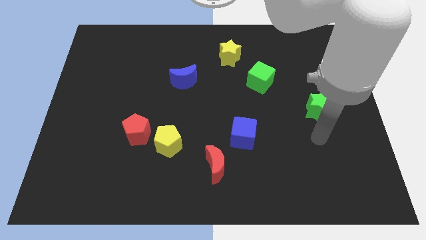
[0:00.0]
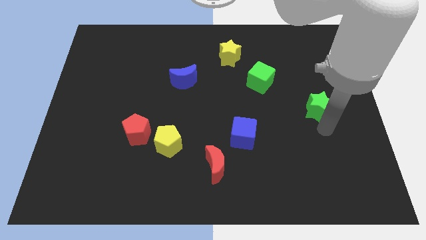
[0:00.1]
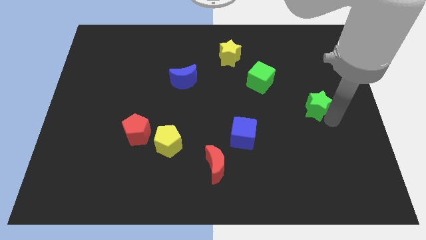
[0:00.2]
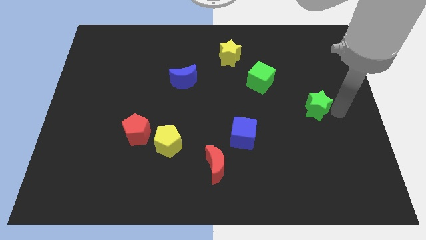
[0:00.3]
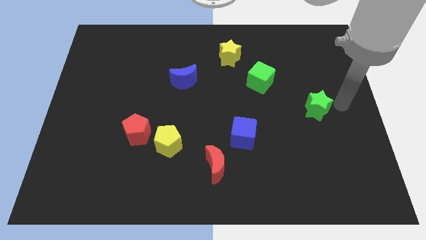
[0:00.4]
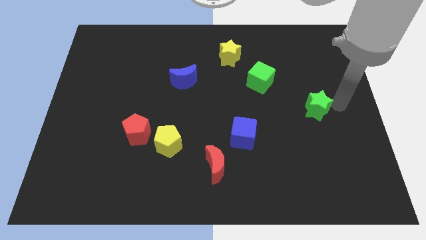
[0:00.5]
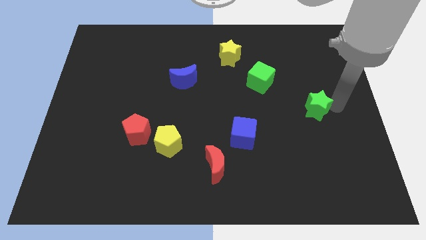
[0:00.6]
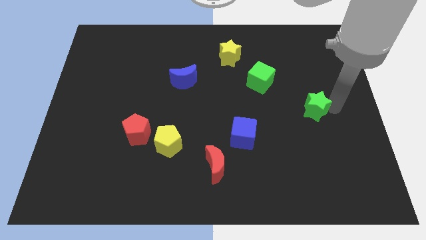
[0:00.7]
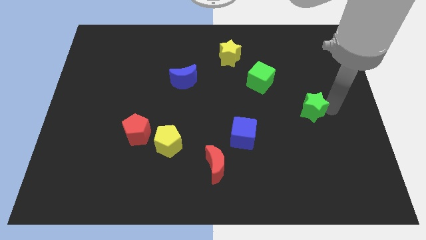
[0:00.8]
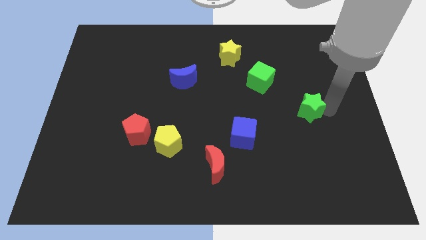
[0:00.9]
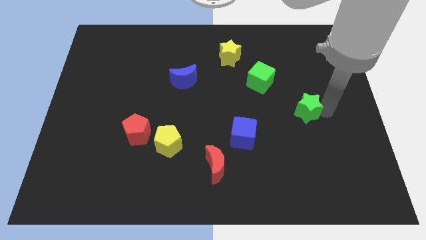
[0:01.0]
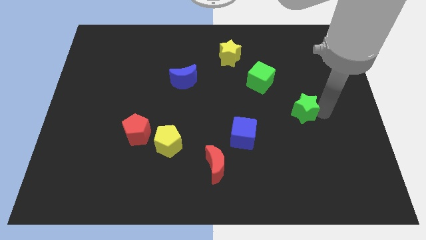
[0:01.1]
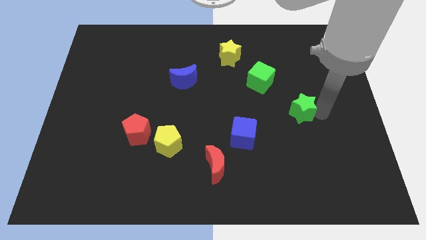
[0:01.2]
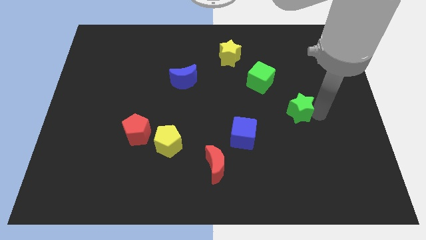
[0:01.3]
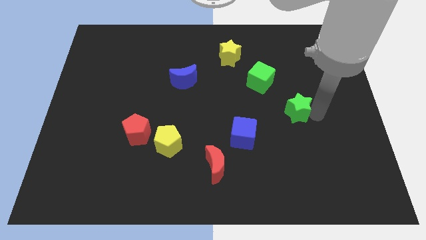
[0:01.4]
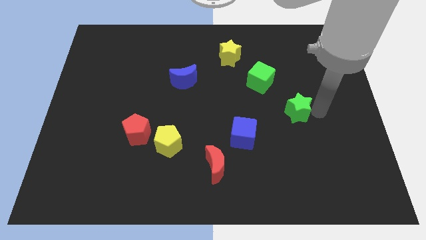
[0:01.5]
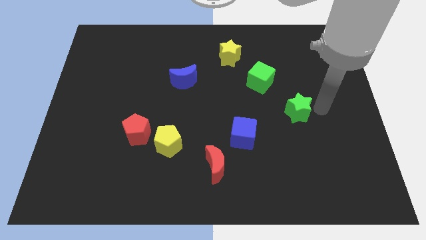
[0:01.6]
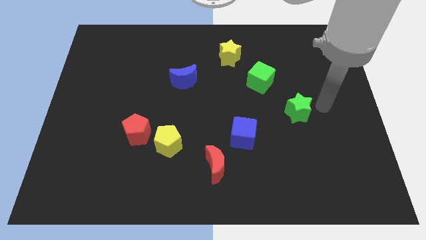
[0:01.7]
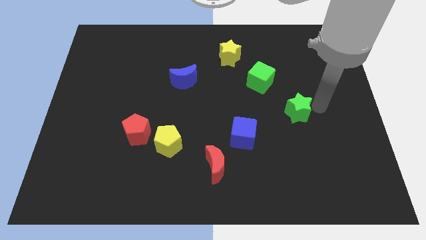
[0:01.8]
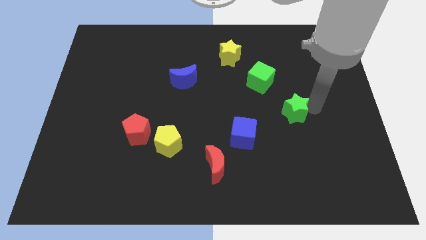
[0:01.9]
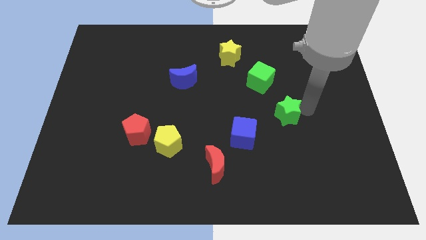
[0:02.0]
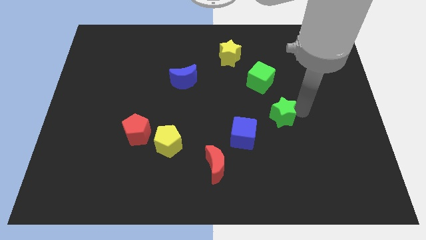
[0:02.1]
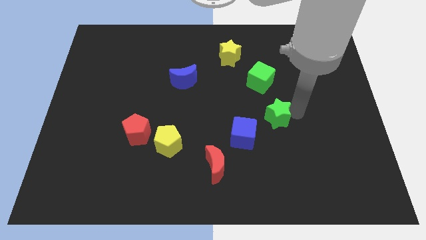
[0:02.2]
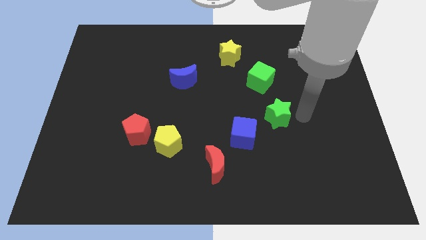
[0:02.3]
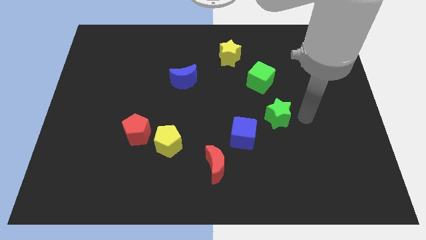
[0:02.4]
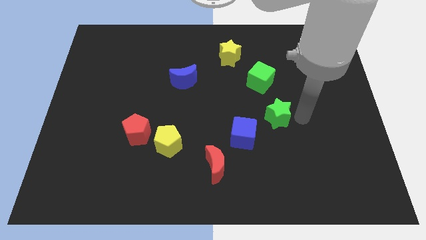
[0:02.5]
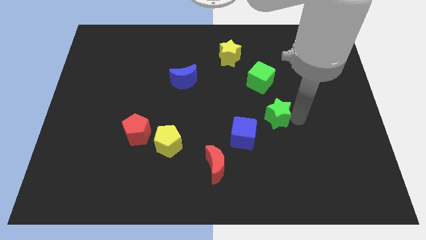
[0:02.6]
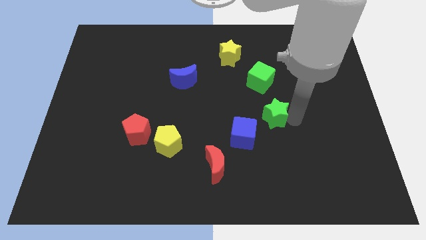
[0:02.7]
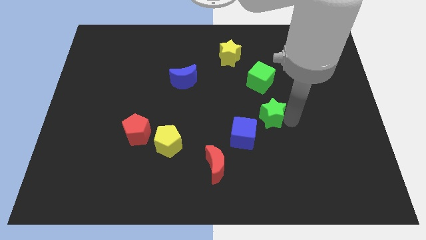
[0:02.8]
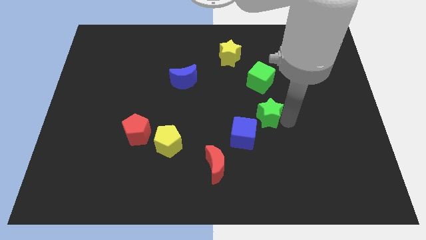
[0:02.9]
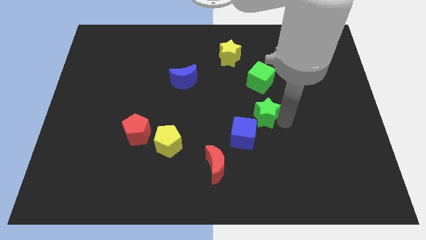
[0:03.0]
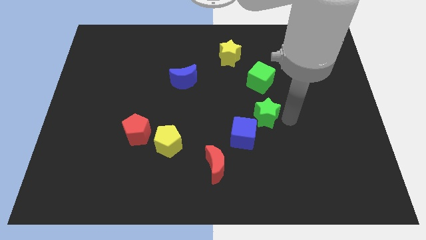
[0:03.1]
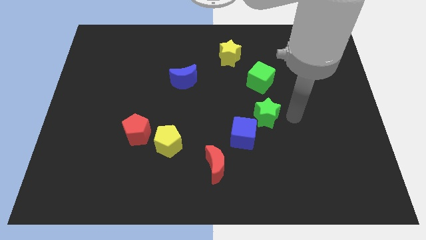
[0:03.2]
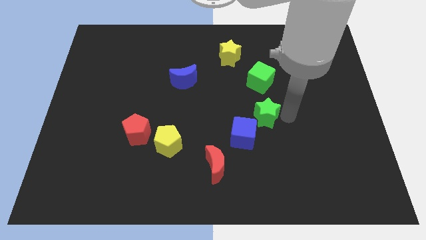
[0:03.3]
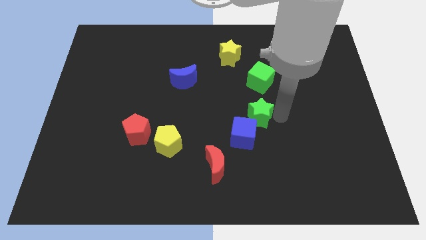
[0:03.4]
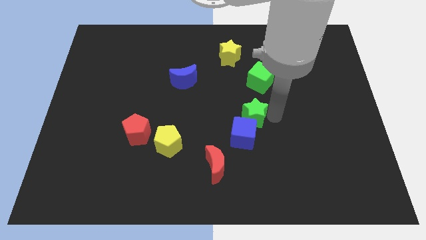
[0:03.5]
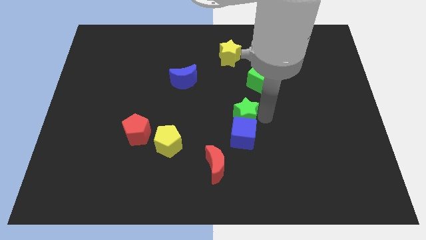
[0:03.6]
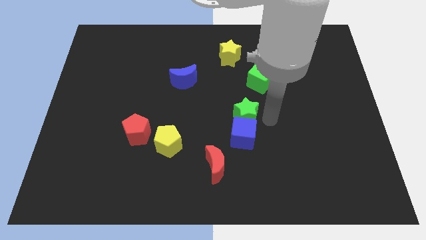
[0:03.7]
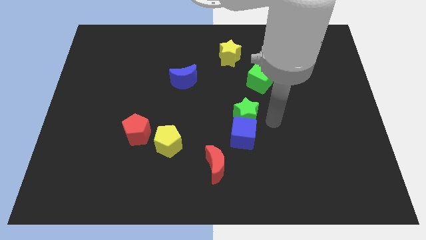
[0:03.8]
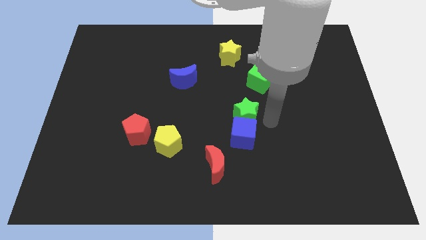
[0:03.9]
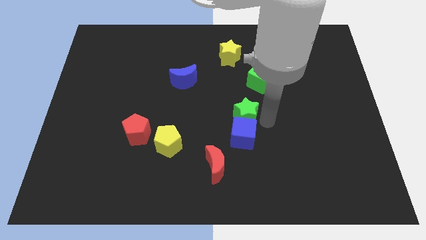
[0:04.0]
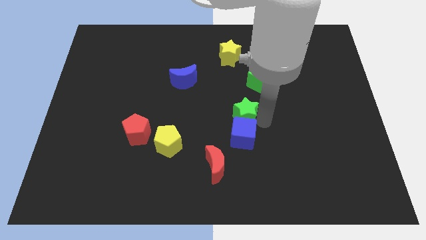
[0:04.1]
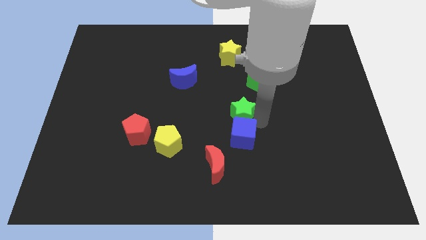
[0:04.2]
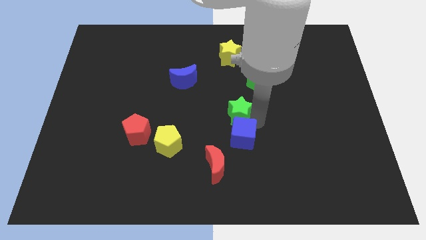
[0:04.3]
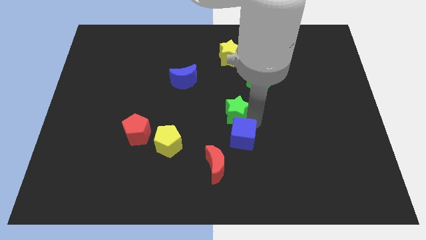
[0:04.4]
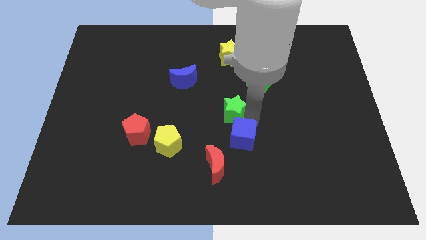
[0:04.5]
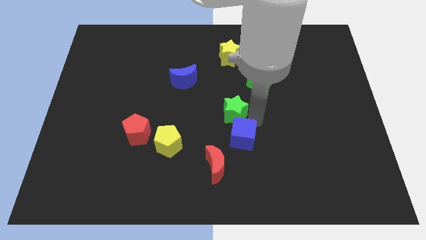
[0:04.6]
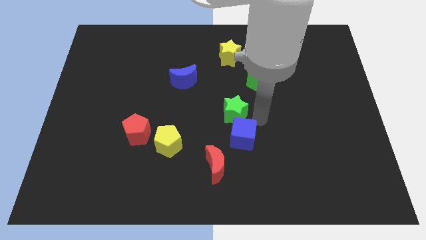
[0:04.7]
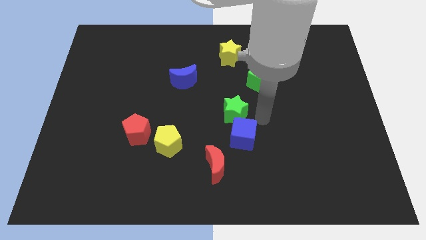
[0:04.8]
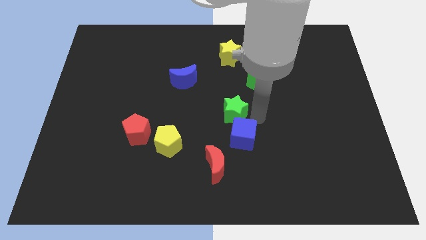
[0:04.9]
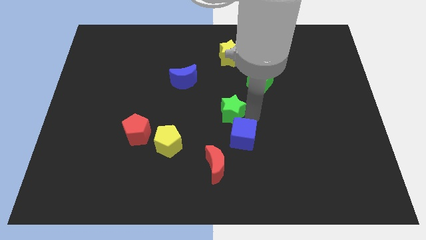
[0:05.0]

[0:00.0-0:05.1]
push the green star to the left

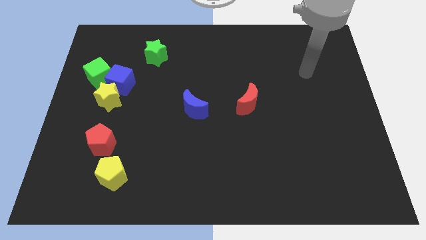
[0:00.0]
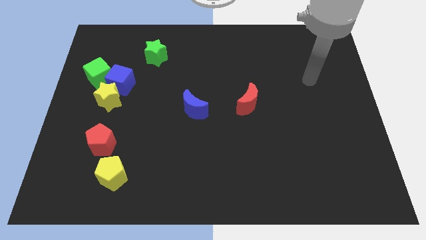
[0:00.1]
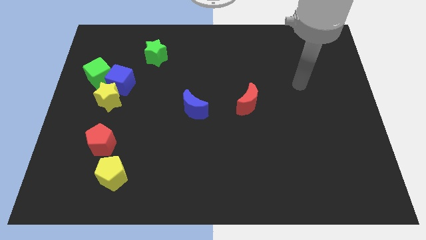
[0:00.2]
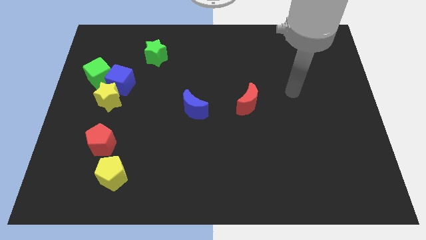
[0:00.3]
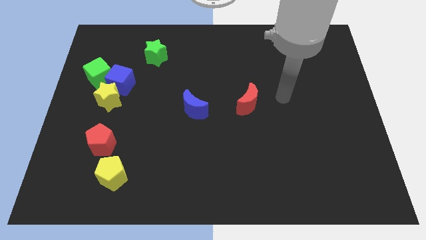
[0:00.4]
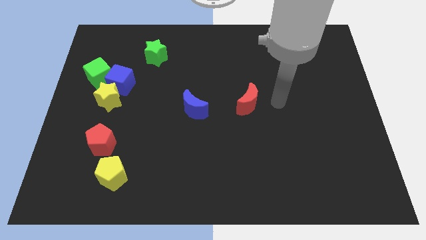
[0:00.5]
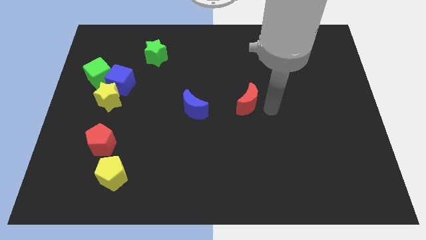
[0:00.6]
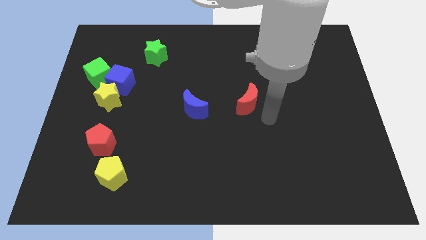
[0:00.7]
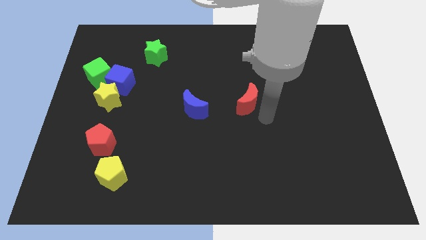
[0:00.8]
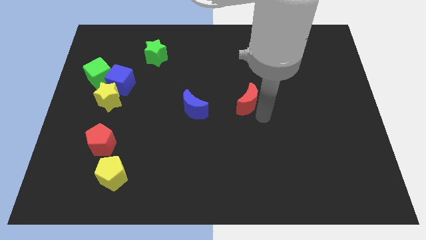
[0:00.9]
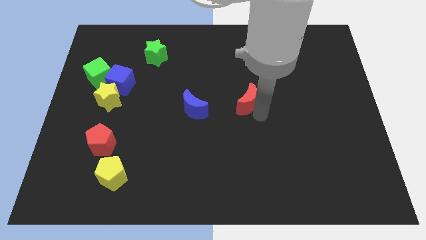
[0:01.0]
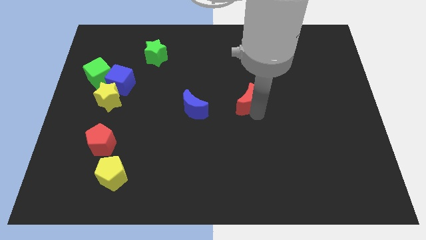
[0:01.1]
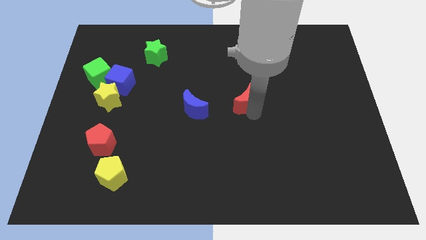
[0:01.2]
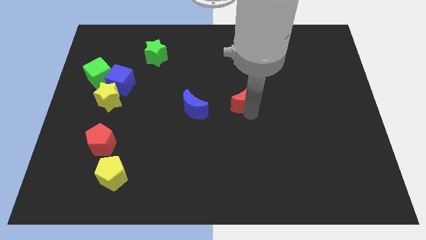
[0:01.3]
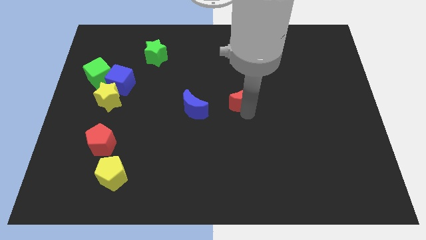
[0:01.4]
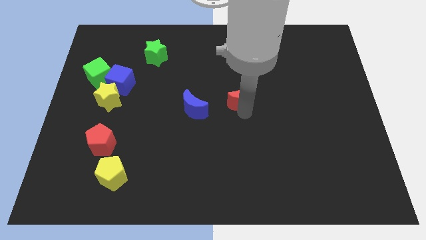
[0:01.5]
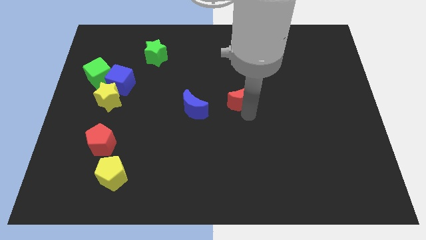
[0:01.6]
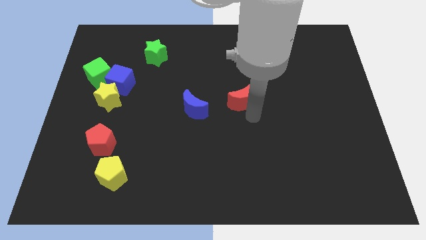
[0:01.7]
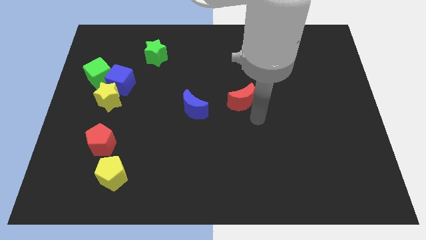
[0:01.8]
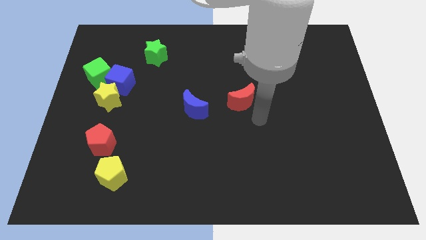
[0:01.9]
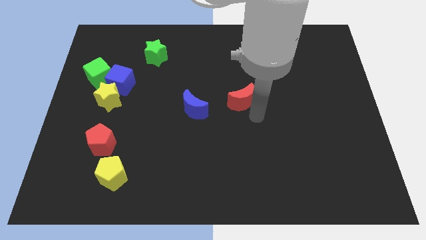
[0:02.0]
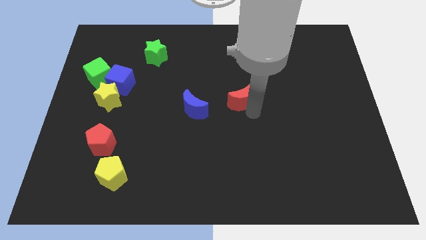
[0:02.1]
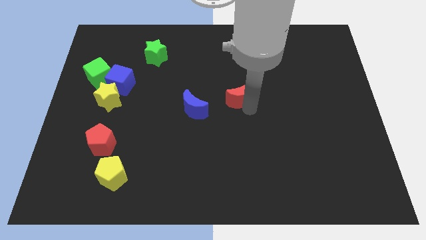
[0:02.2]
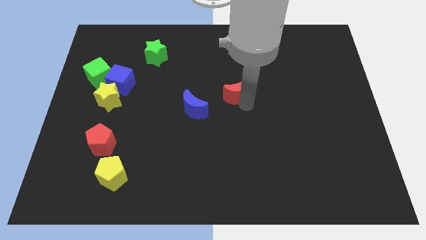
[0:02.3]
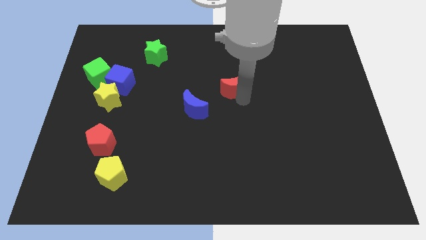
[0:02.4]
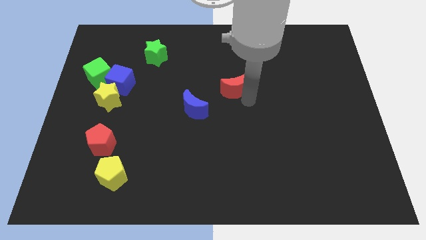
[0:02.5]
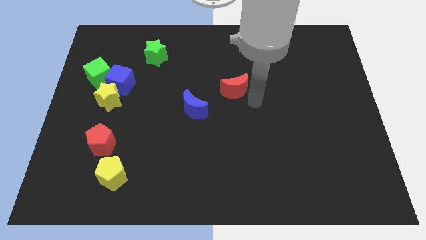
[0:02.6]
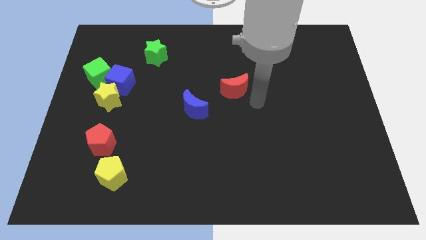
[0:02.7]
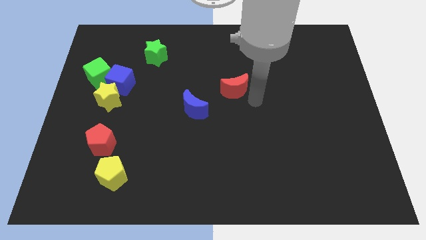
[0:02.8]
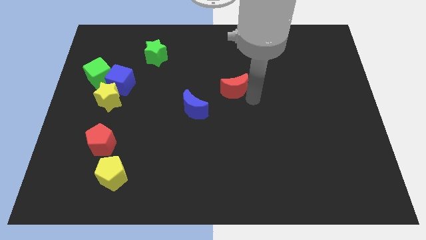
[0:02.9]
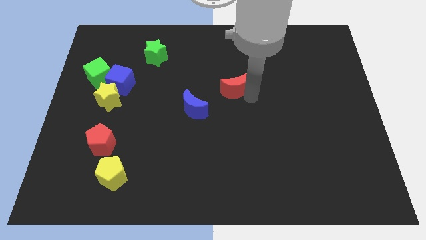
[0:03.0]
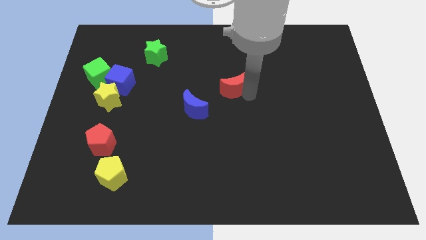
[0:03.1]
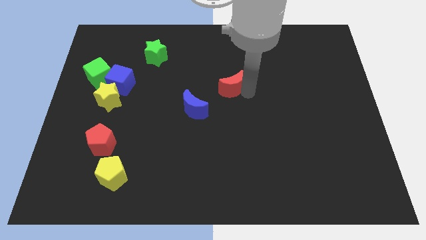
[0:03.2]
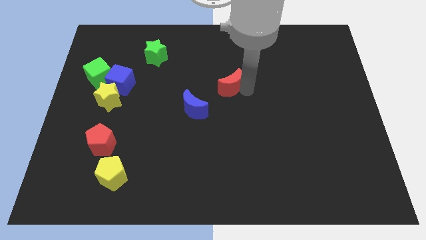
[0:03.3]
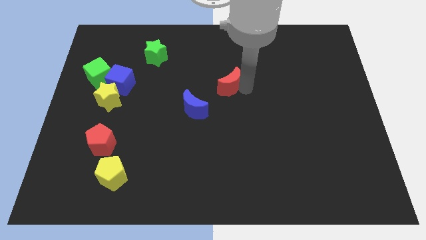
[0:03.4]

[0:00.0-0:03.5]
slightly slide the red moon diagonally up and to the left
